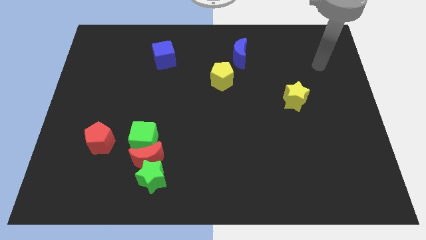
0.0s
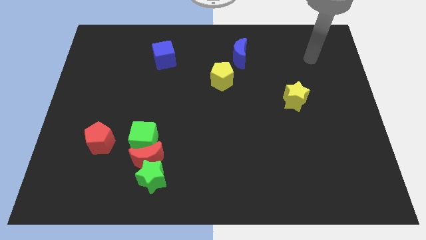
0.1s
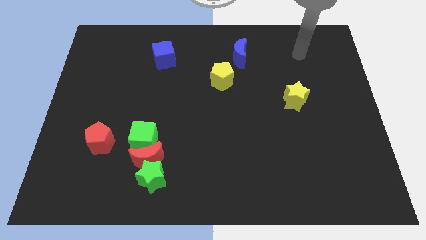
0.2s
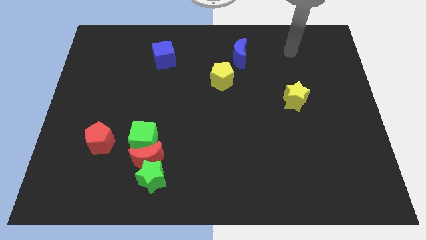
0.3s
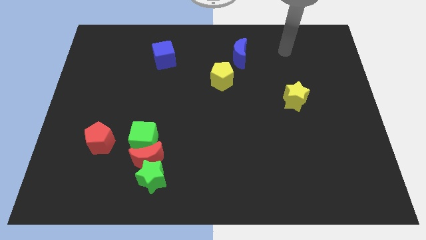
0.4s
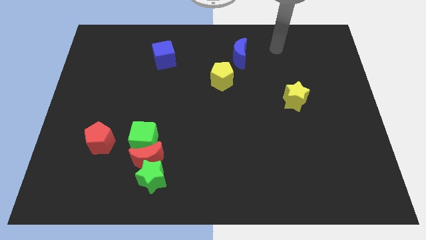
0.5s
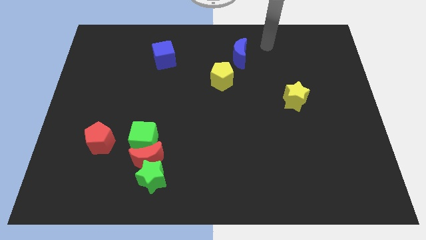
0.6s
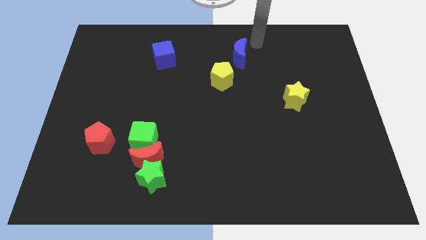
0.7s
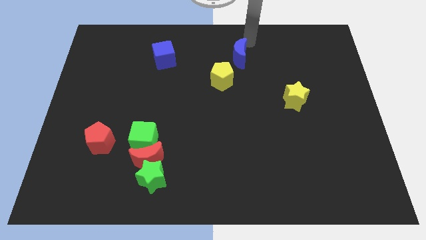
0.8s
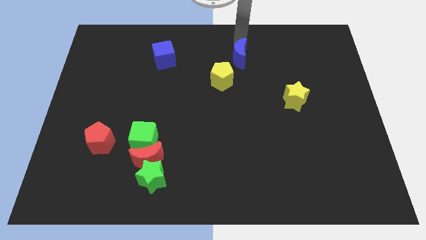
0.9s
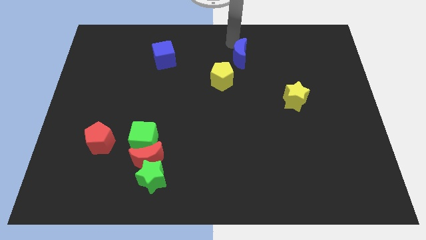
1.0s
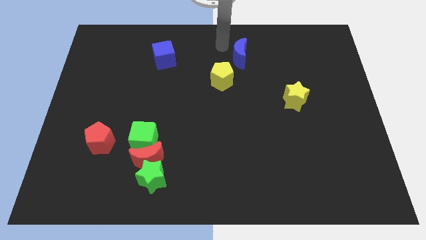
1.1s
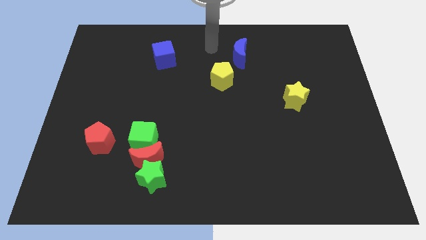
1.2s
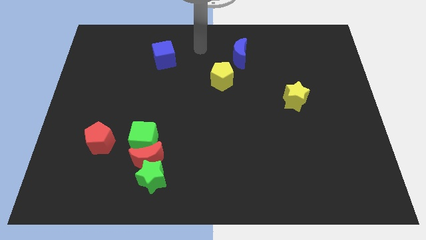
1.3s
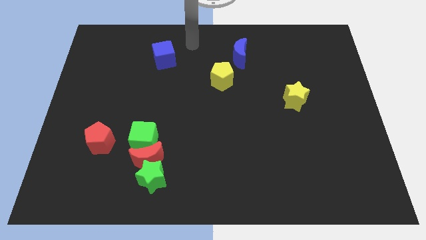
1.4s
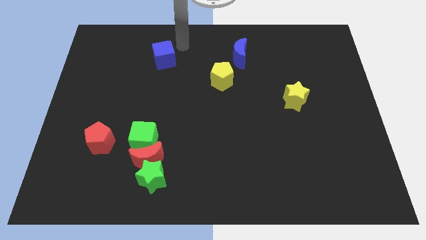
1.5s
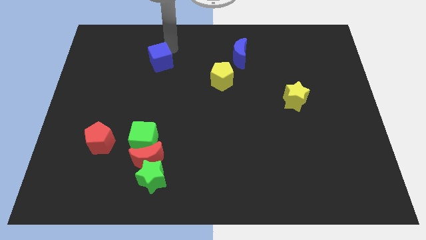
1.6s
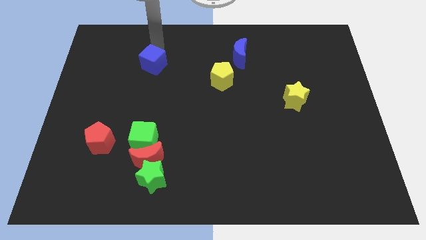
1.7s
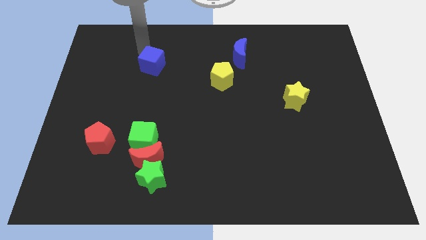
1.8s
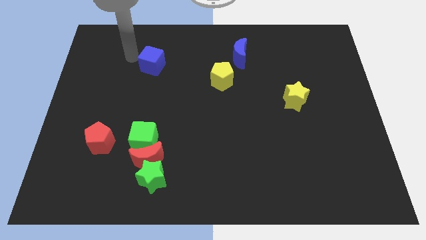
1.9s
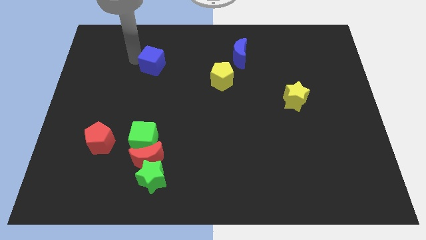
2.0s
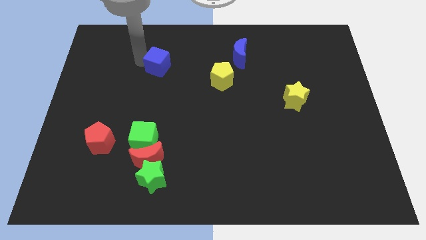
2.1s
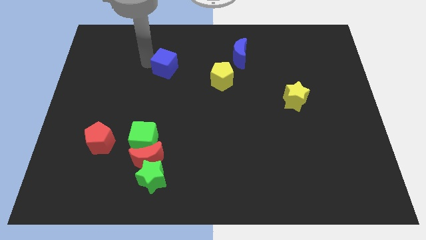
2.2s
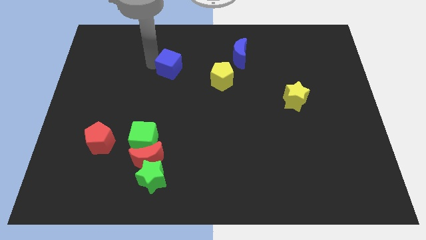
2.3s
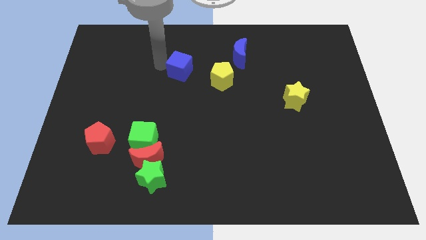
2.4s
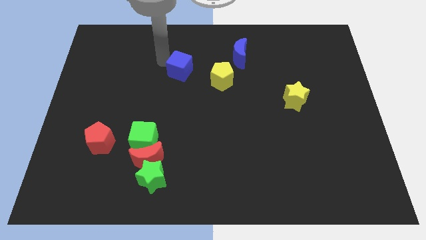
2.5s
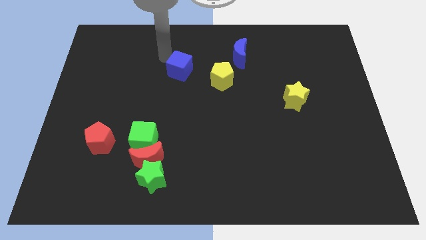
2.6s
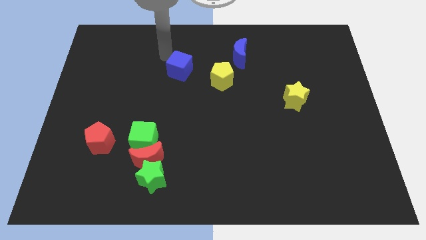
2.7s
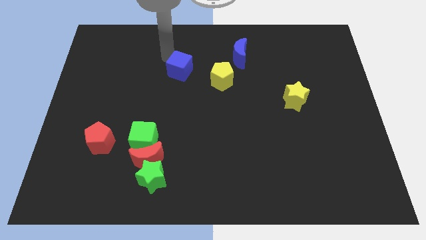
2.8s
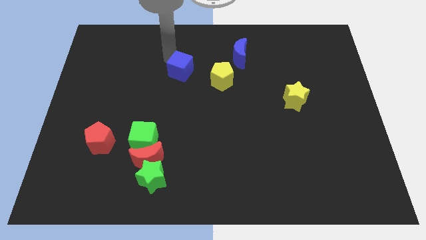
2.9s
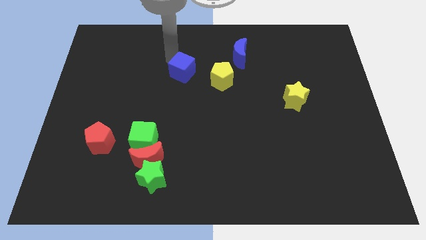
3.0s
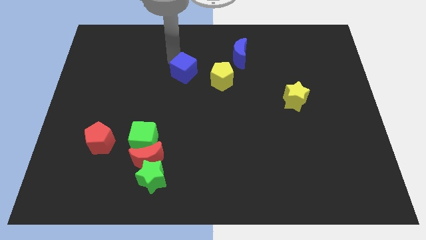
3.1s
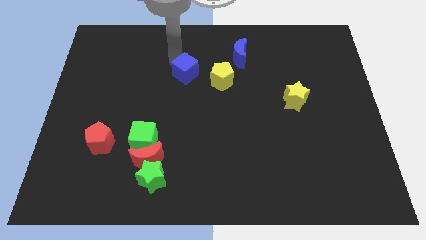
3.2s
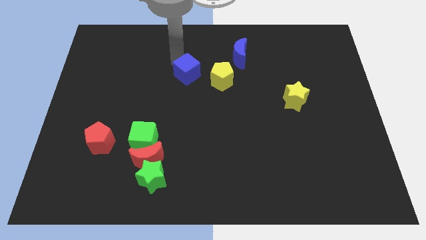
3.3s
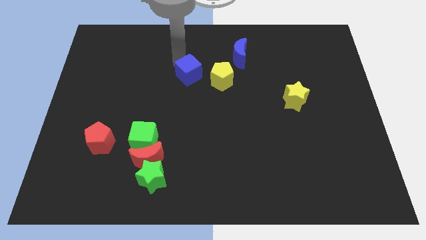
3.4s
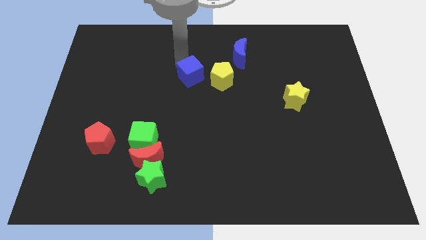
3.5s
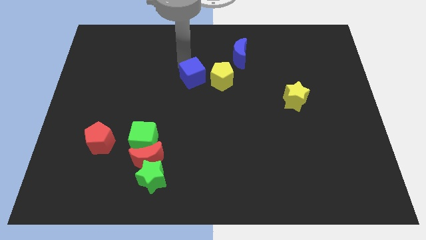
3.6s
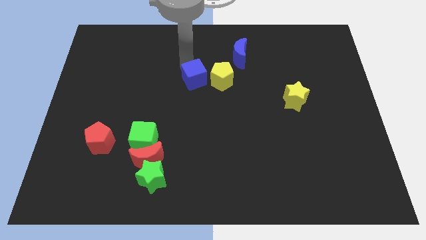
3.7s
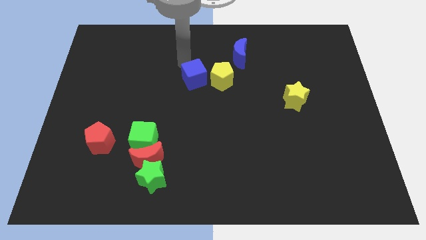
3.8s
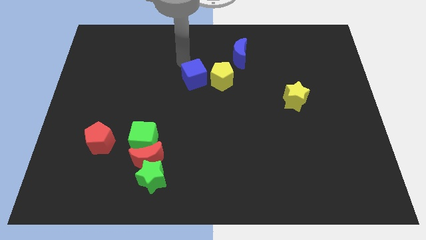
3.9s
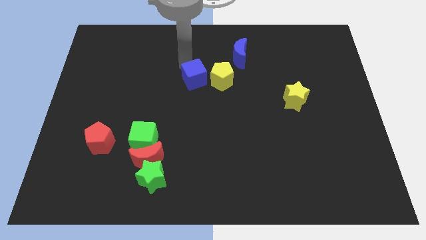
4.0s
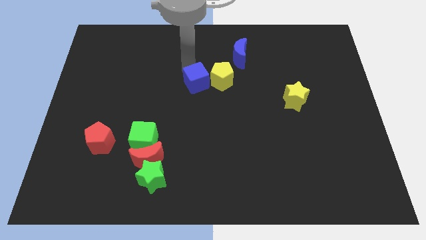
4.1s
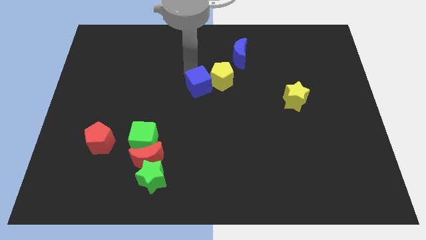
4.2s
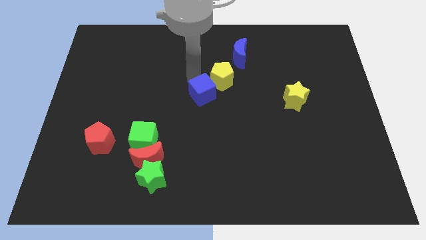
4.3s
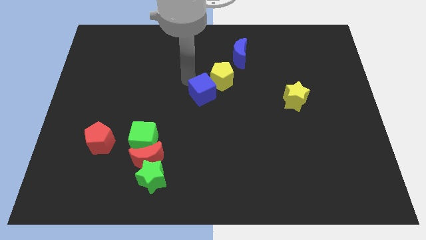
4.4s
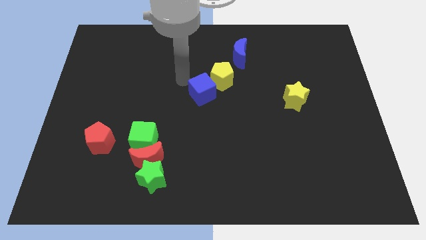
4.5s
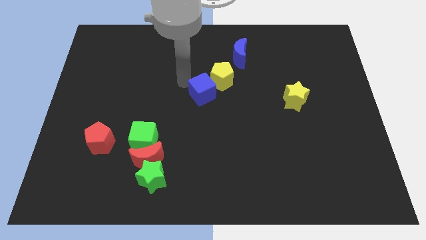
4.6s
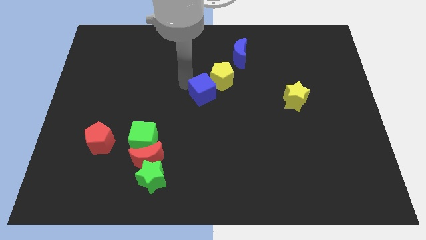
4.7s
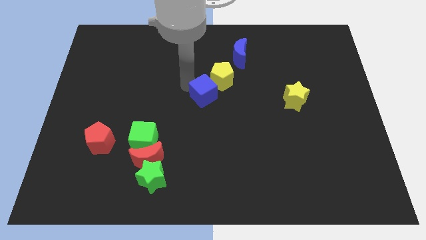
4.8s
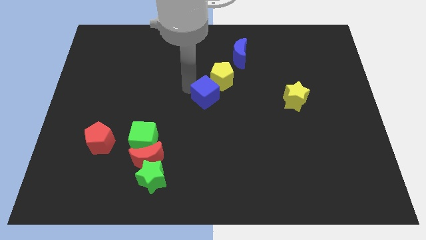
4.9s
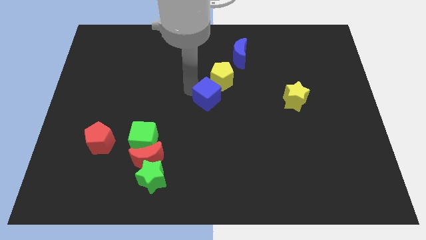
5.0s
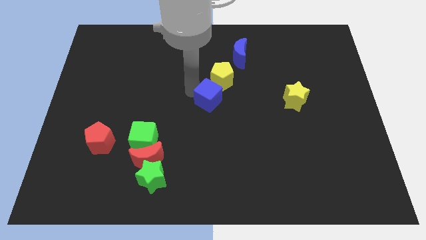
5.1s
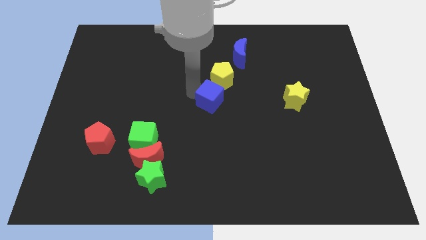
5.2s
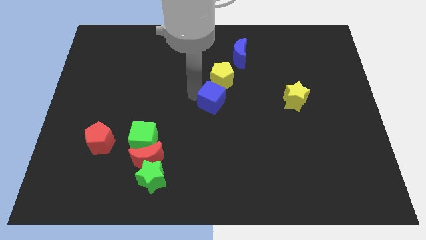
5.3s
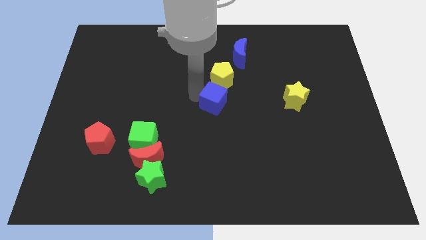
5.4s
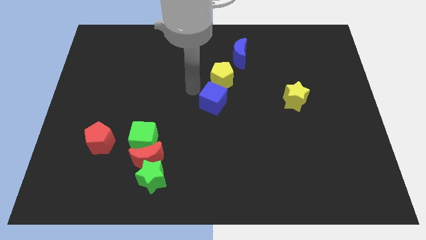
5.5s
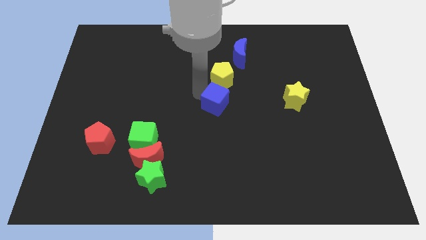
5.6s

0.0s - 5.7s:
move the blue cube diagonally downwards and to the right

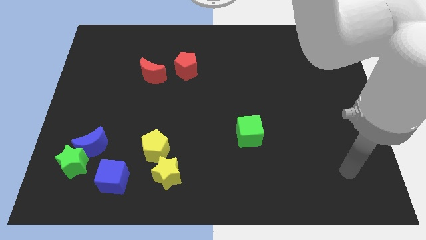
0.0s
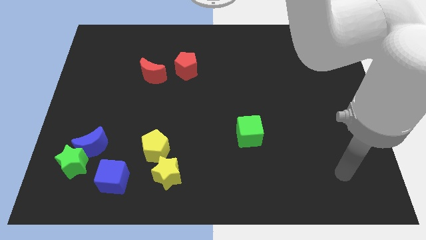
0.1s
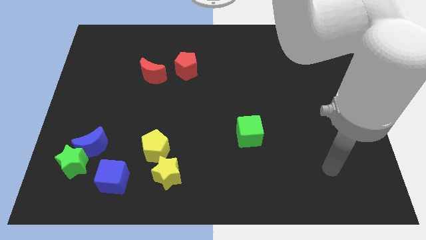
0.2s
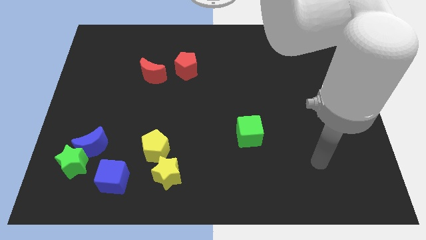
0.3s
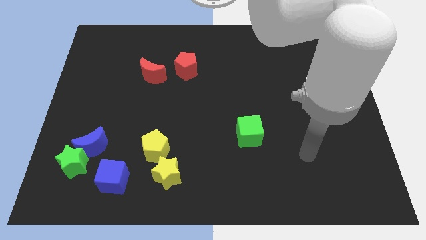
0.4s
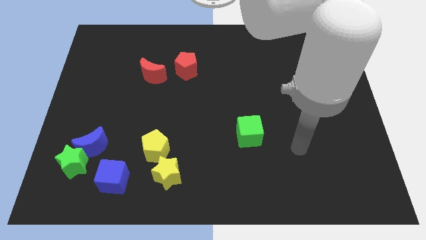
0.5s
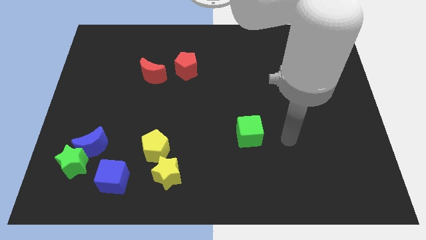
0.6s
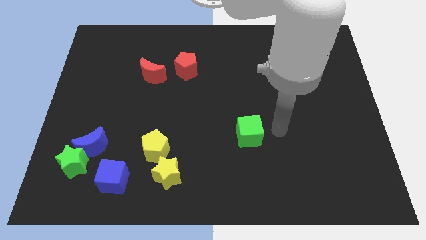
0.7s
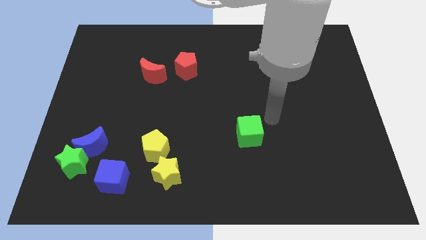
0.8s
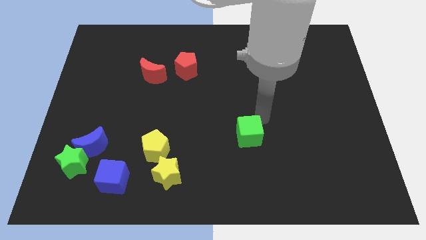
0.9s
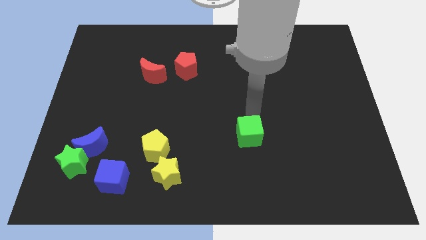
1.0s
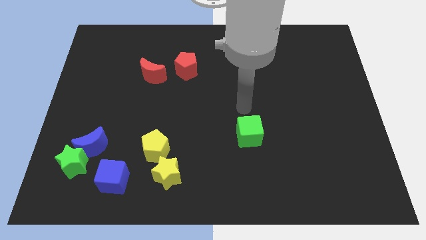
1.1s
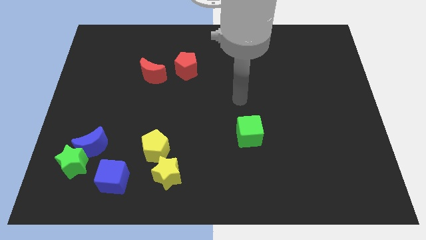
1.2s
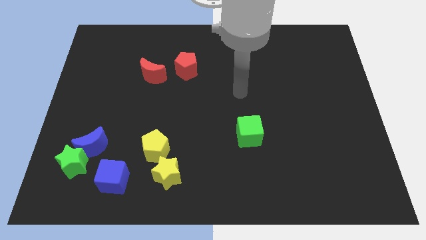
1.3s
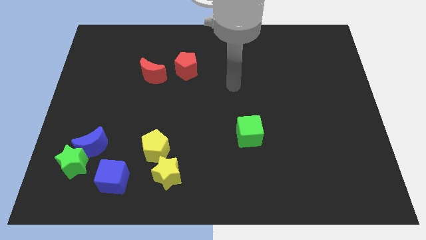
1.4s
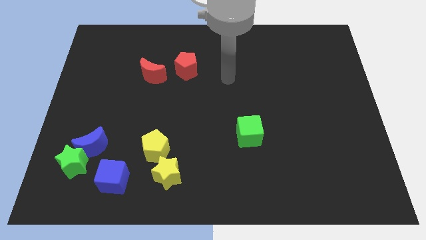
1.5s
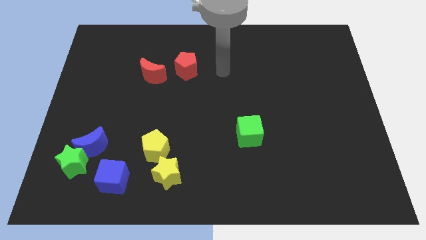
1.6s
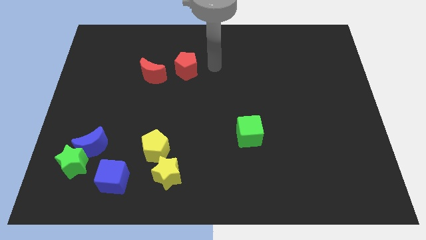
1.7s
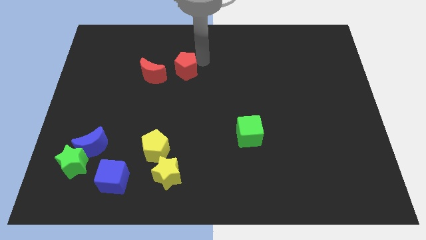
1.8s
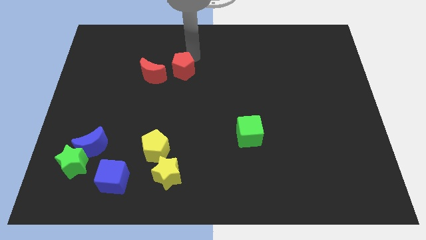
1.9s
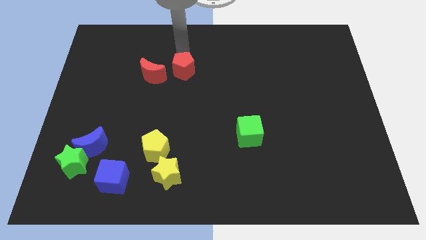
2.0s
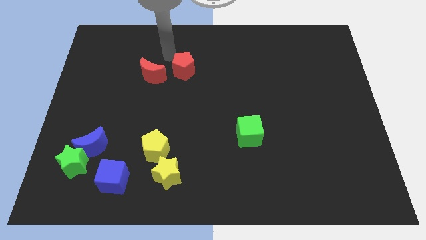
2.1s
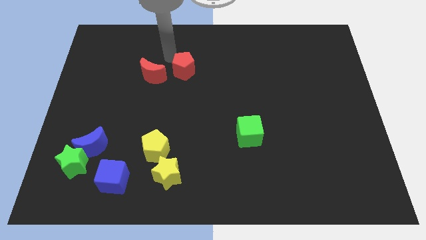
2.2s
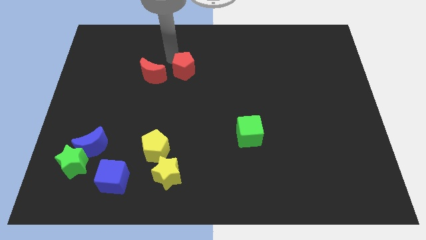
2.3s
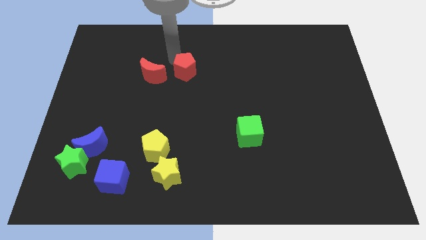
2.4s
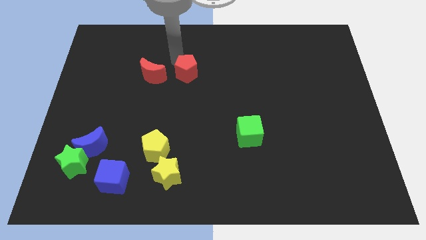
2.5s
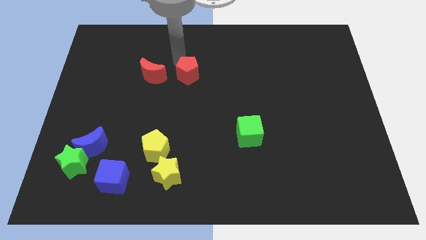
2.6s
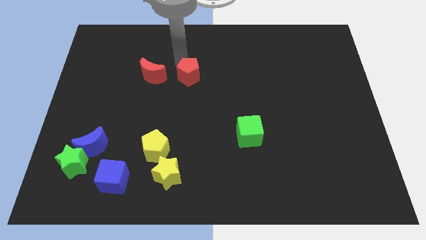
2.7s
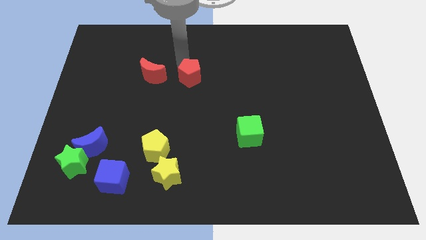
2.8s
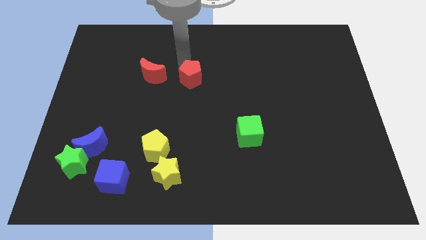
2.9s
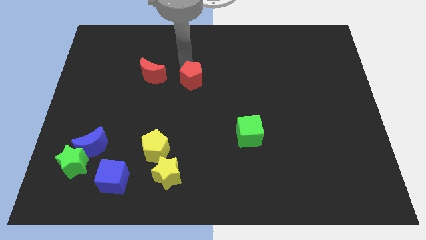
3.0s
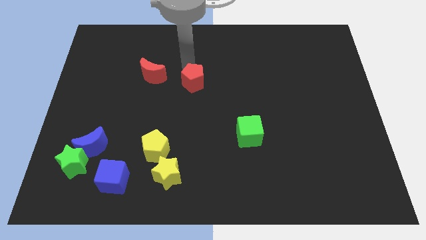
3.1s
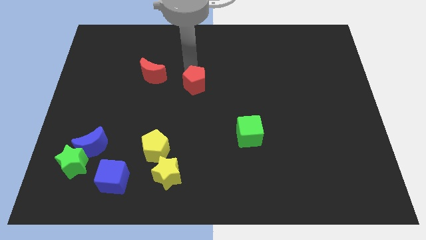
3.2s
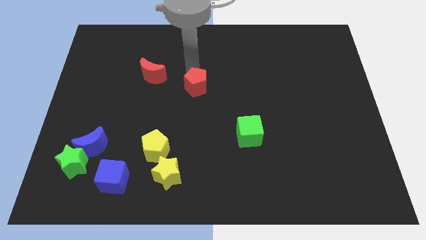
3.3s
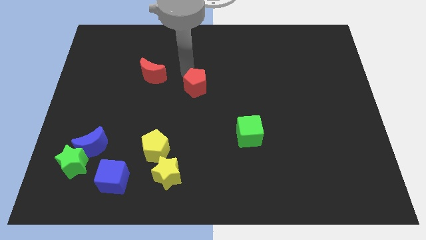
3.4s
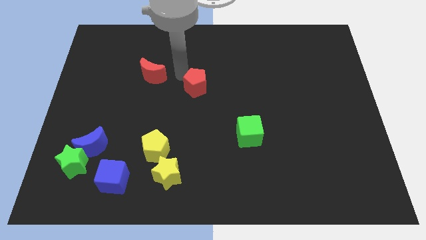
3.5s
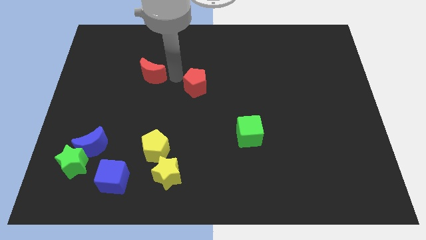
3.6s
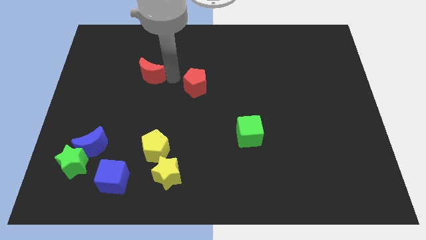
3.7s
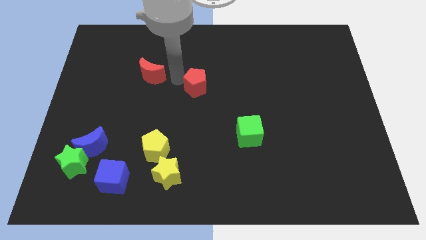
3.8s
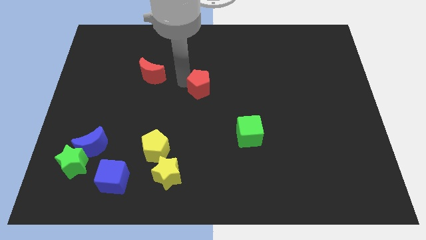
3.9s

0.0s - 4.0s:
slightly move the red pentagon diagonally downwards and to the right
